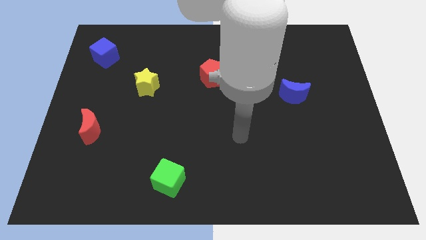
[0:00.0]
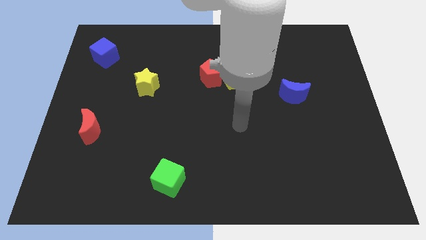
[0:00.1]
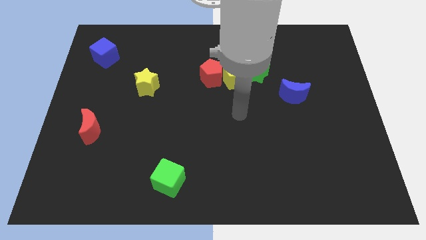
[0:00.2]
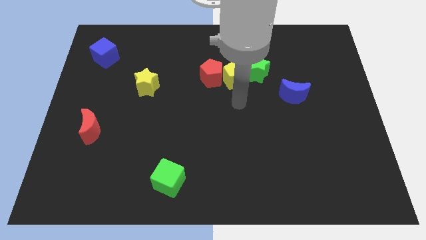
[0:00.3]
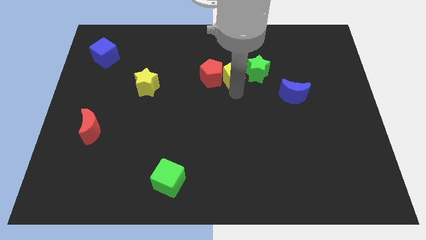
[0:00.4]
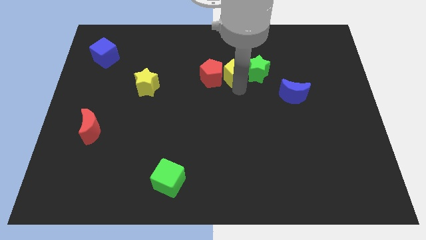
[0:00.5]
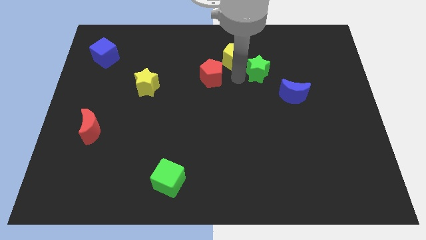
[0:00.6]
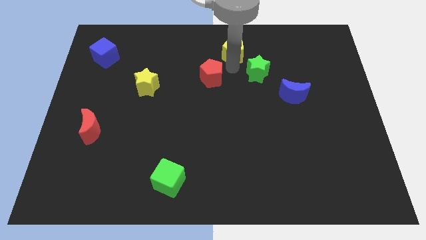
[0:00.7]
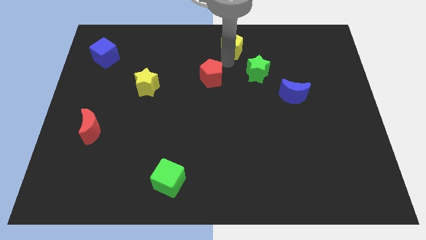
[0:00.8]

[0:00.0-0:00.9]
pull the red pentagon apart from the yellow pentagon

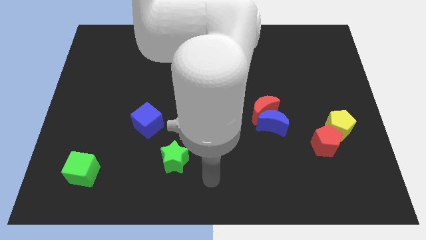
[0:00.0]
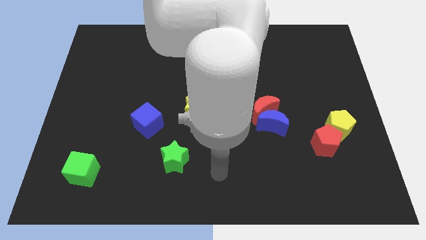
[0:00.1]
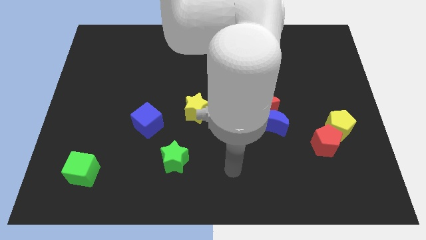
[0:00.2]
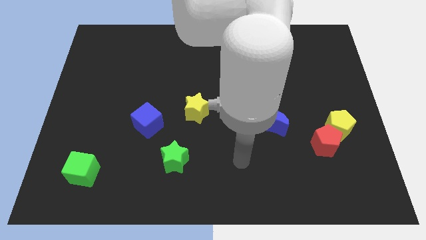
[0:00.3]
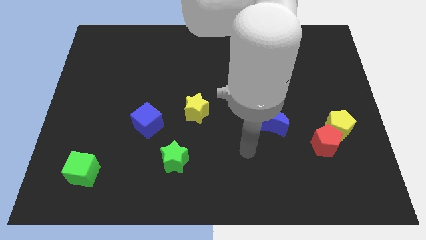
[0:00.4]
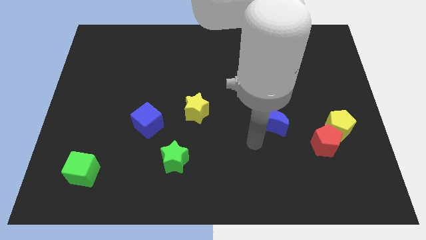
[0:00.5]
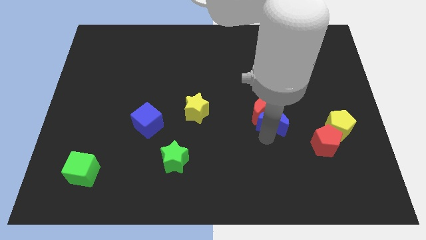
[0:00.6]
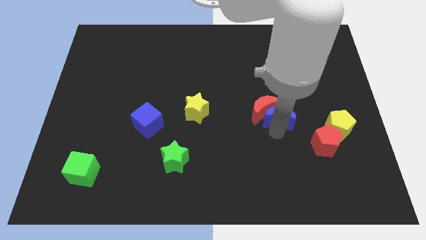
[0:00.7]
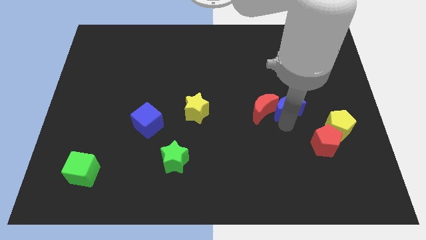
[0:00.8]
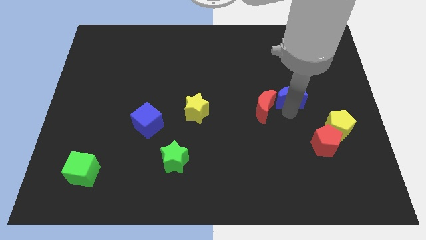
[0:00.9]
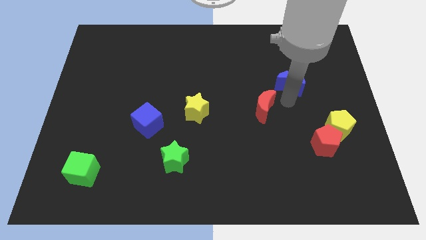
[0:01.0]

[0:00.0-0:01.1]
pull the red moon apart from the blue moon

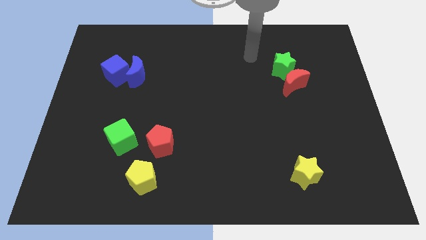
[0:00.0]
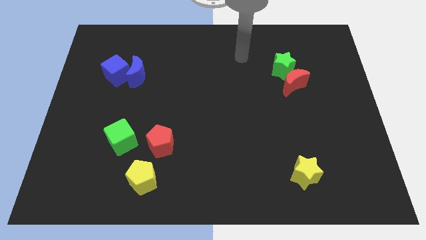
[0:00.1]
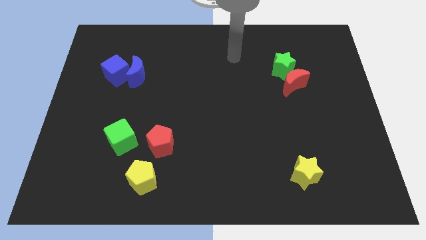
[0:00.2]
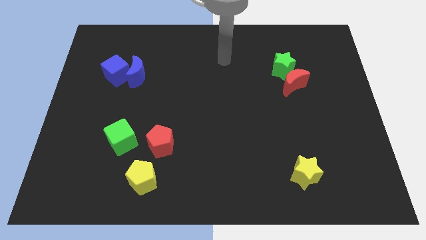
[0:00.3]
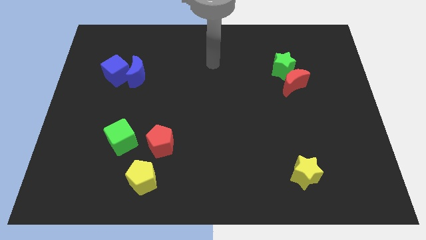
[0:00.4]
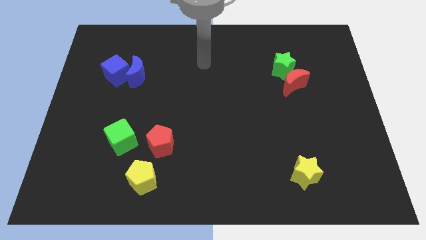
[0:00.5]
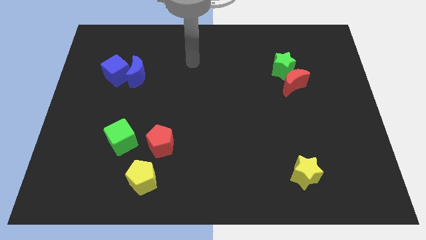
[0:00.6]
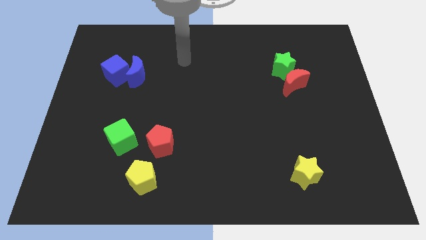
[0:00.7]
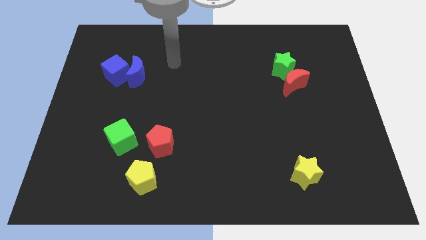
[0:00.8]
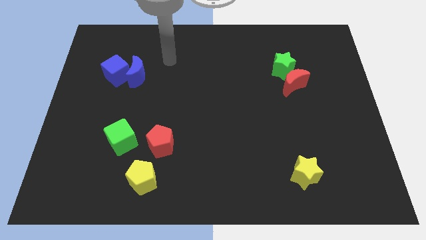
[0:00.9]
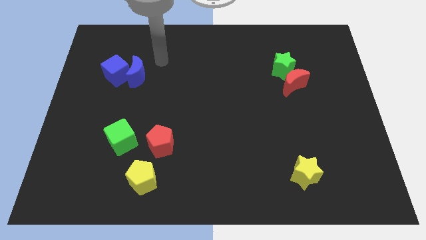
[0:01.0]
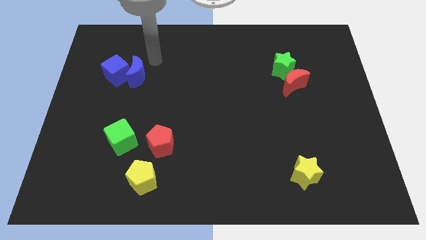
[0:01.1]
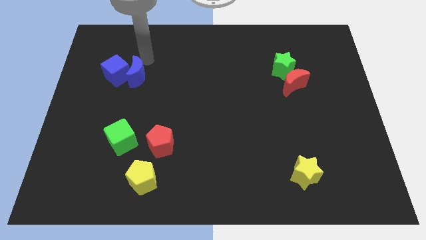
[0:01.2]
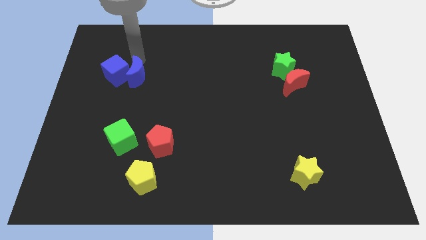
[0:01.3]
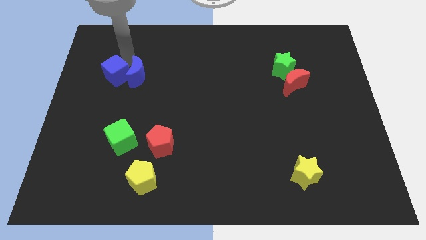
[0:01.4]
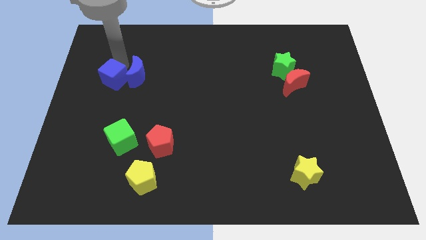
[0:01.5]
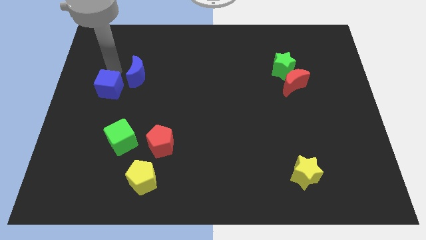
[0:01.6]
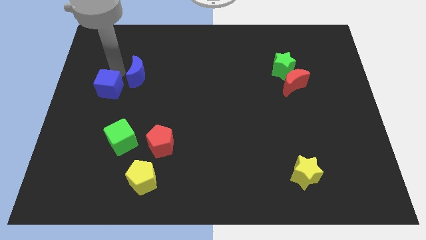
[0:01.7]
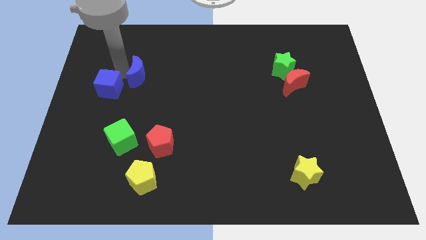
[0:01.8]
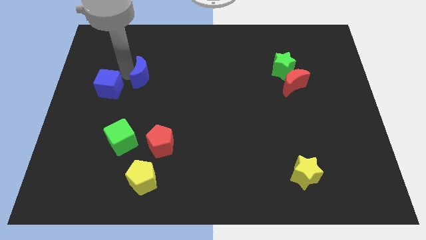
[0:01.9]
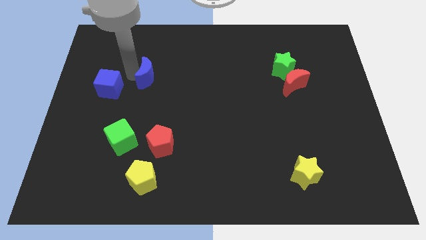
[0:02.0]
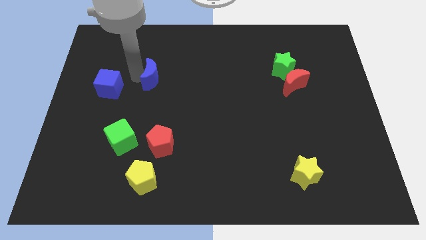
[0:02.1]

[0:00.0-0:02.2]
separate the blue moon from the blue cube

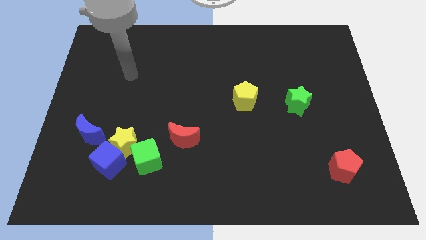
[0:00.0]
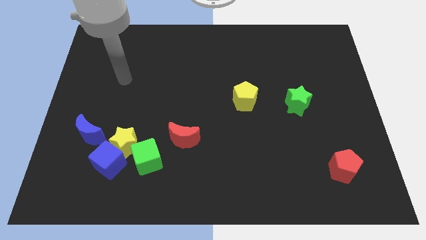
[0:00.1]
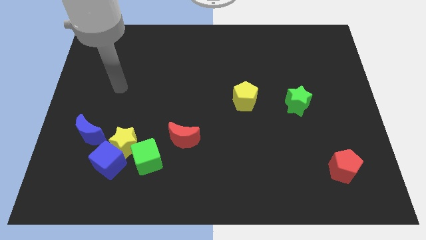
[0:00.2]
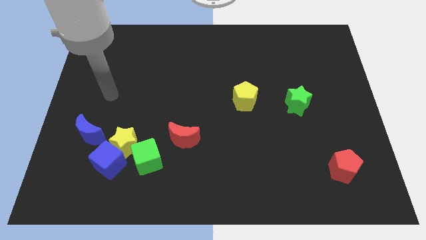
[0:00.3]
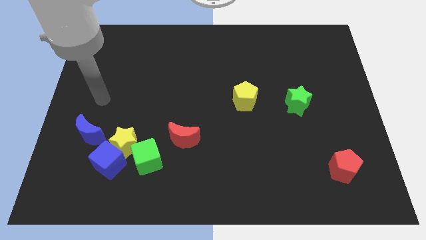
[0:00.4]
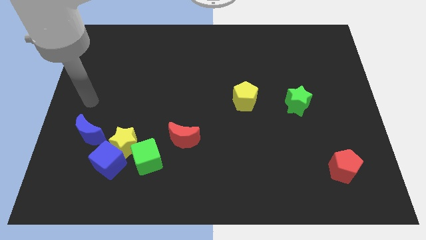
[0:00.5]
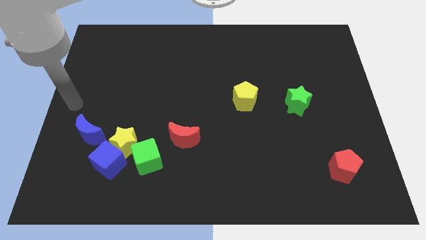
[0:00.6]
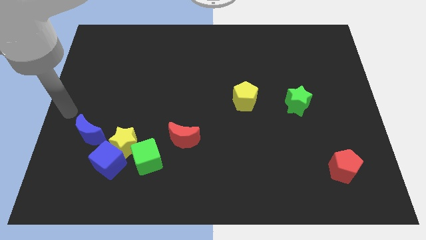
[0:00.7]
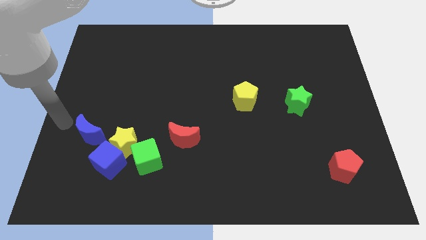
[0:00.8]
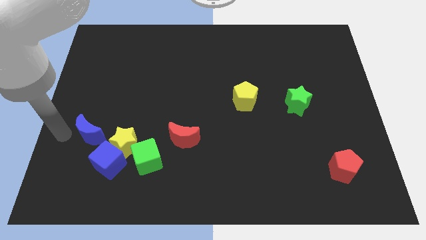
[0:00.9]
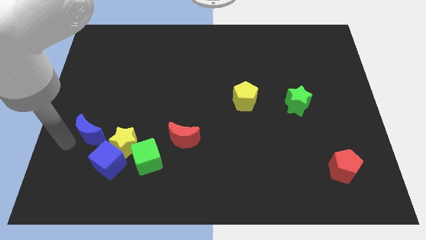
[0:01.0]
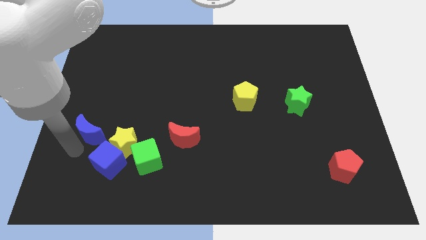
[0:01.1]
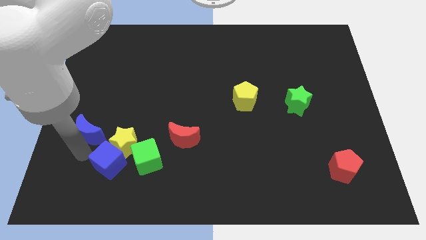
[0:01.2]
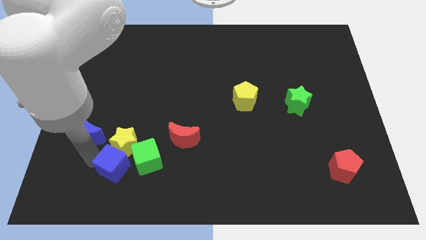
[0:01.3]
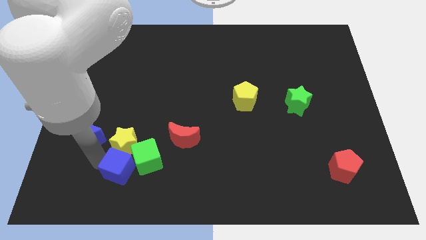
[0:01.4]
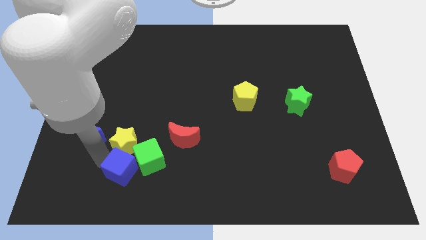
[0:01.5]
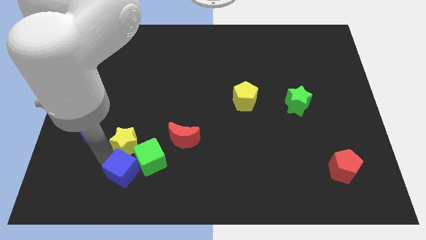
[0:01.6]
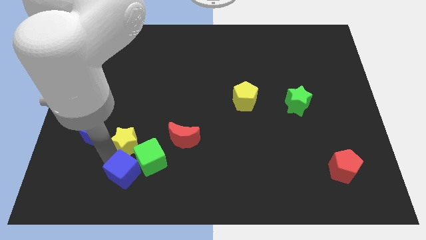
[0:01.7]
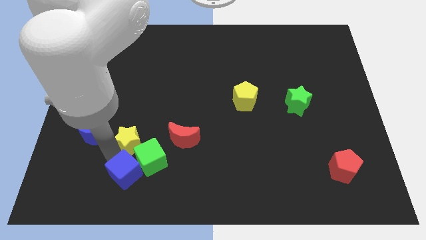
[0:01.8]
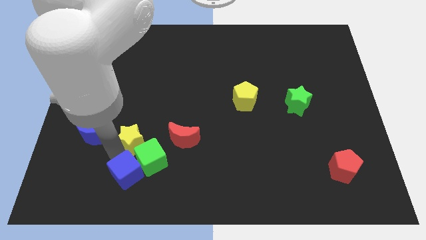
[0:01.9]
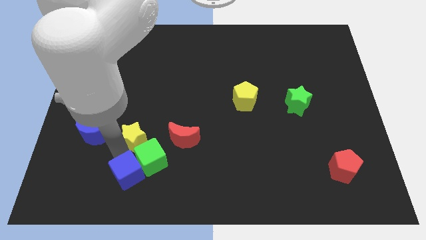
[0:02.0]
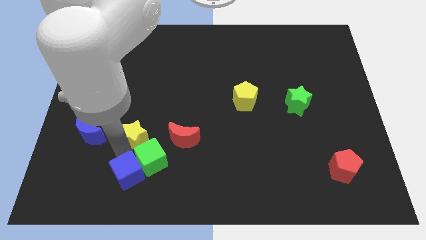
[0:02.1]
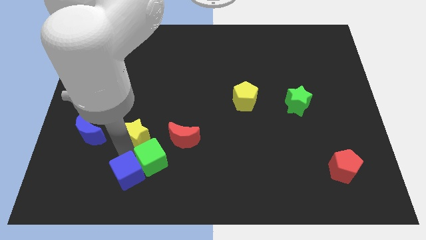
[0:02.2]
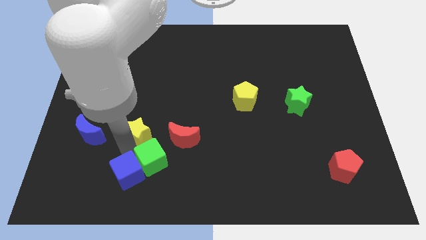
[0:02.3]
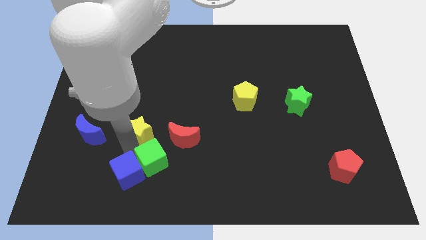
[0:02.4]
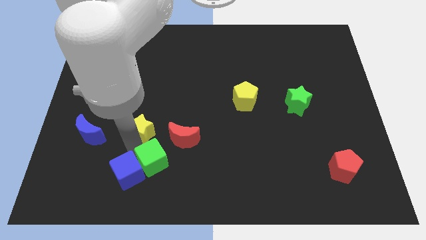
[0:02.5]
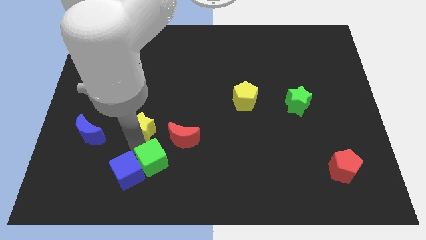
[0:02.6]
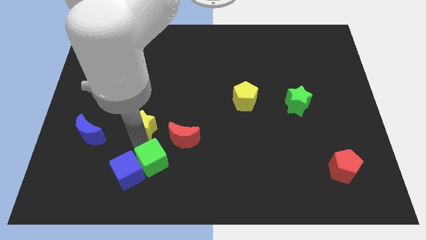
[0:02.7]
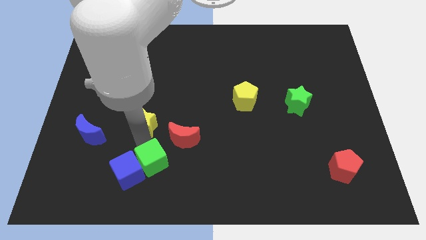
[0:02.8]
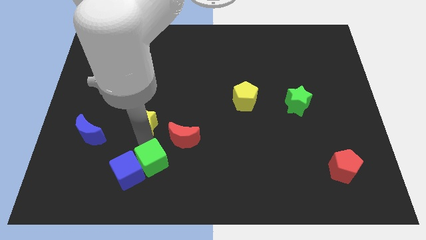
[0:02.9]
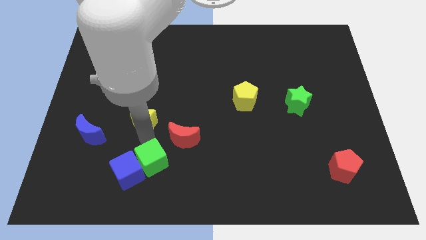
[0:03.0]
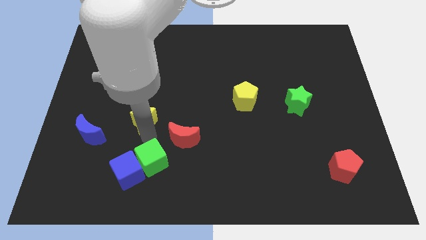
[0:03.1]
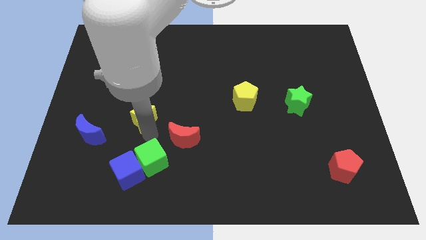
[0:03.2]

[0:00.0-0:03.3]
pull the yellow star apart from the clump

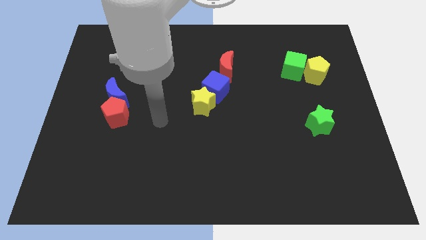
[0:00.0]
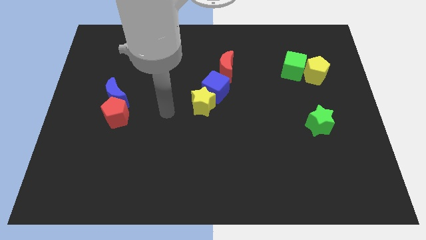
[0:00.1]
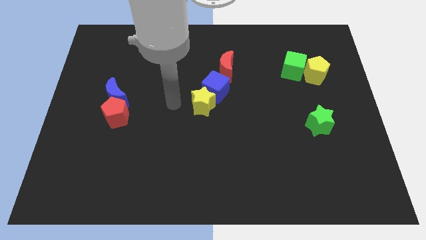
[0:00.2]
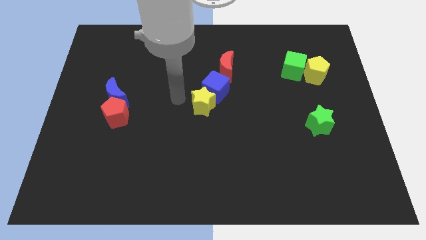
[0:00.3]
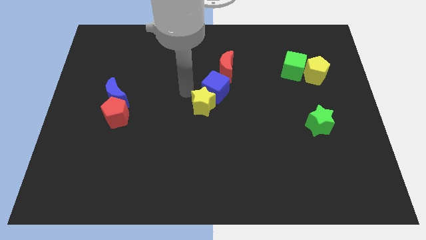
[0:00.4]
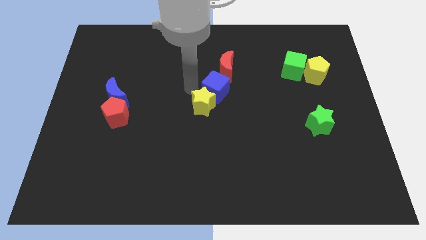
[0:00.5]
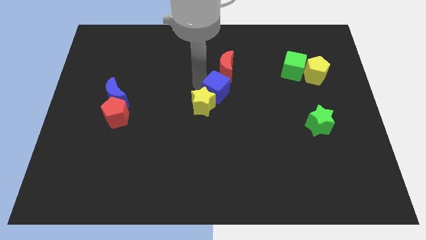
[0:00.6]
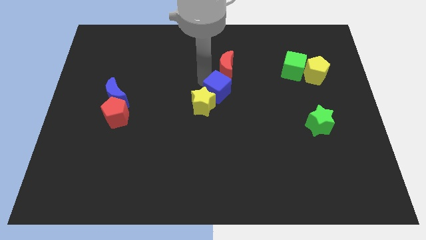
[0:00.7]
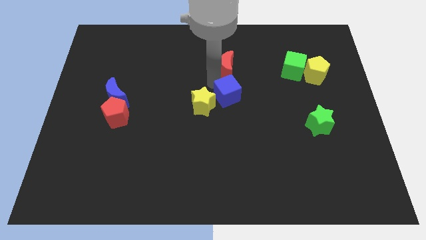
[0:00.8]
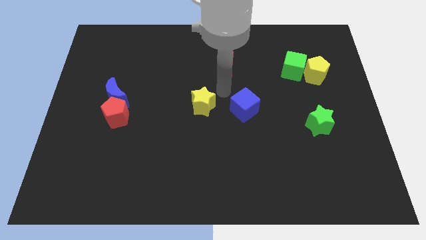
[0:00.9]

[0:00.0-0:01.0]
move the yellow star away from the blue cube

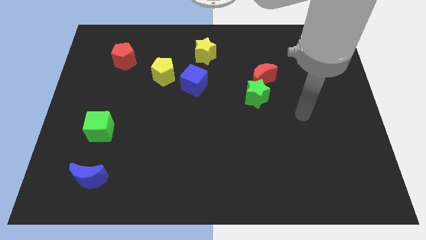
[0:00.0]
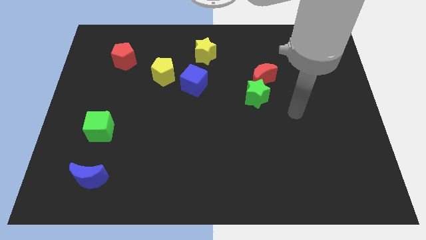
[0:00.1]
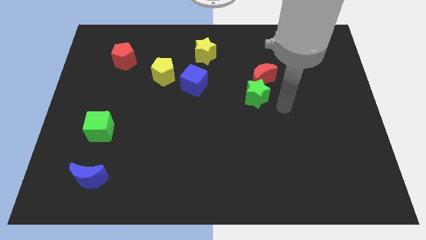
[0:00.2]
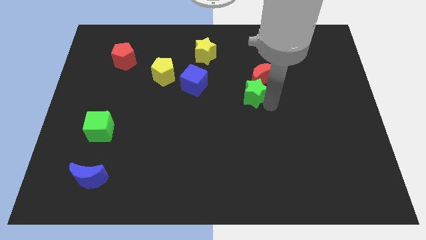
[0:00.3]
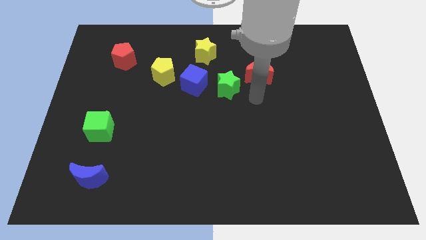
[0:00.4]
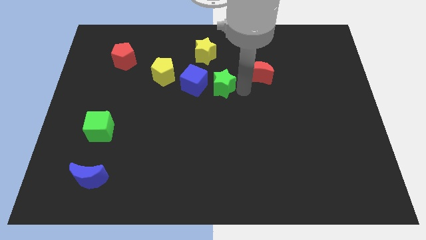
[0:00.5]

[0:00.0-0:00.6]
pull the red moon apart from the green star
